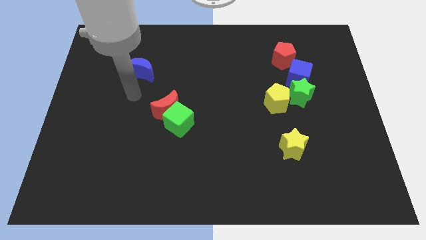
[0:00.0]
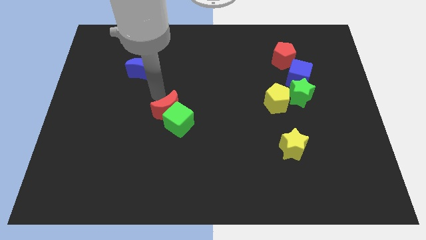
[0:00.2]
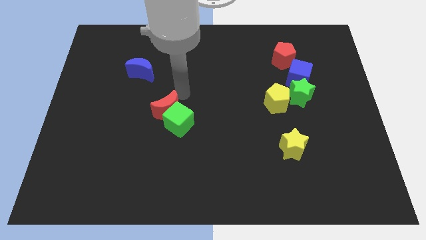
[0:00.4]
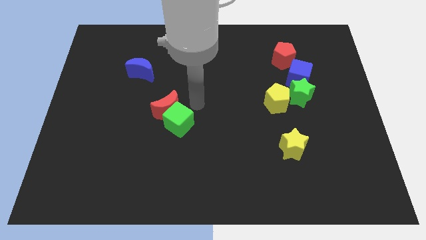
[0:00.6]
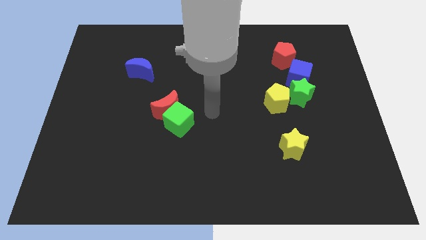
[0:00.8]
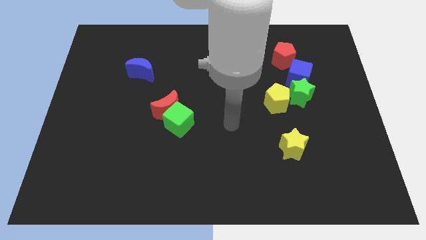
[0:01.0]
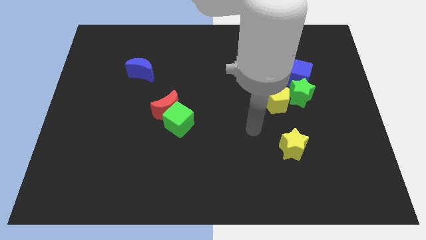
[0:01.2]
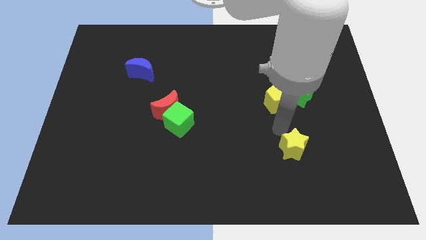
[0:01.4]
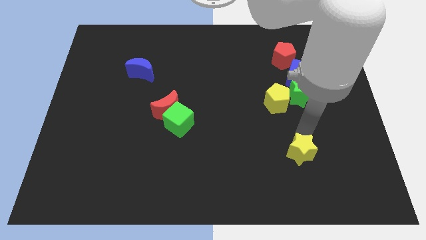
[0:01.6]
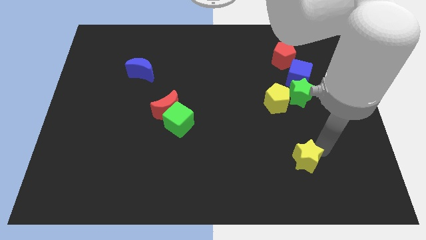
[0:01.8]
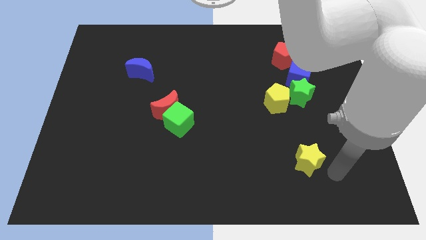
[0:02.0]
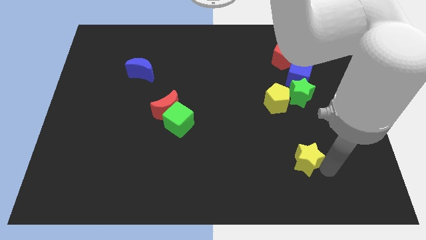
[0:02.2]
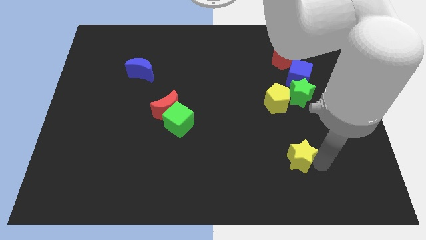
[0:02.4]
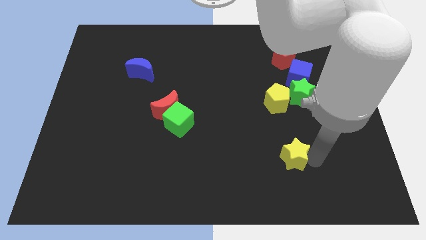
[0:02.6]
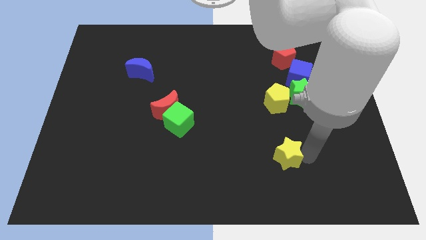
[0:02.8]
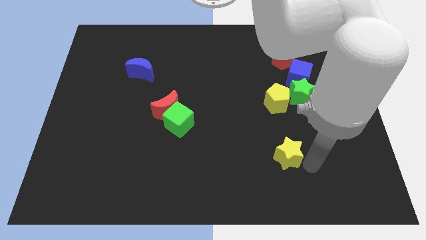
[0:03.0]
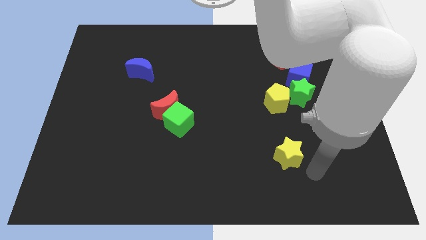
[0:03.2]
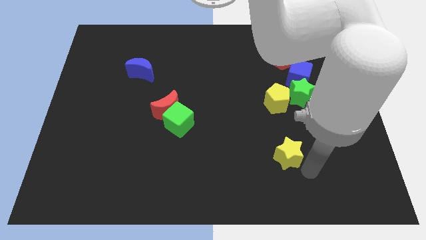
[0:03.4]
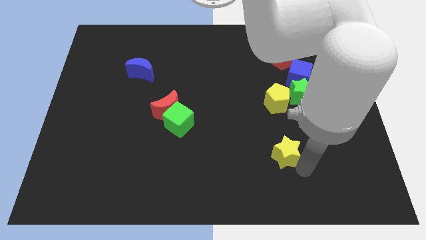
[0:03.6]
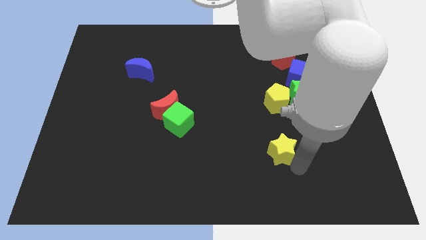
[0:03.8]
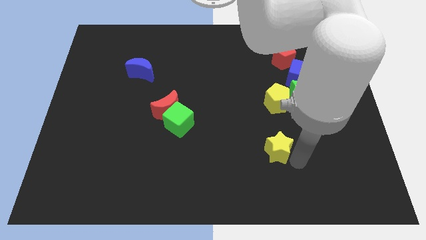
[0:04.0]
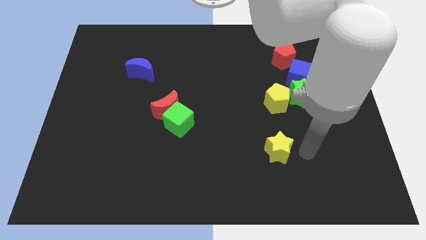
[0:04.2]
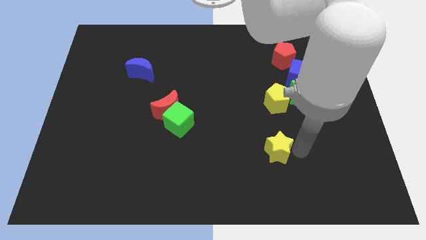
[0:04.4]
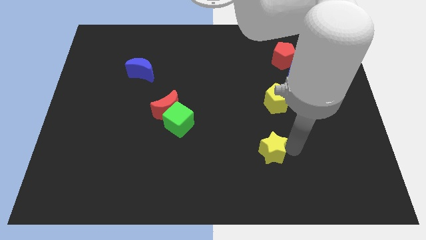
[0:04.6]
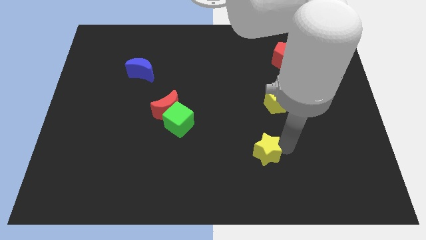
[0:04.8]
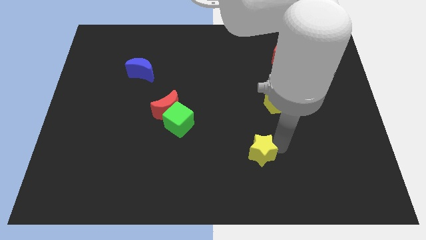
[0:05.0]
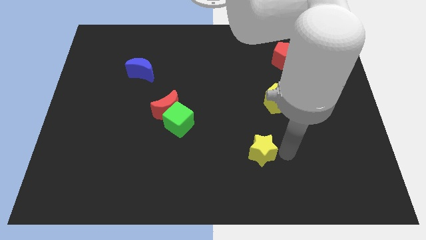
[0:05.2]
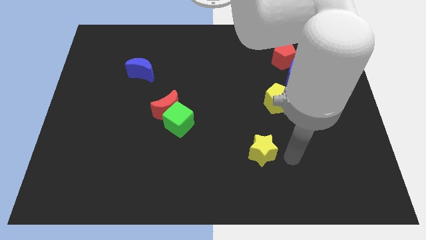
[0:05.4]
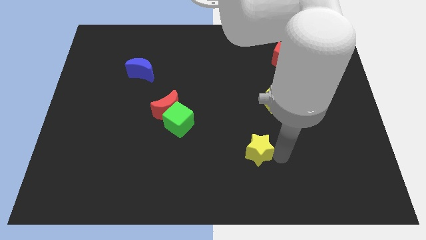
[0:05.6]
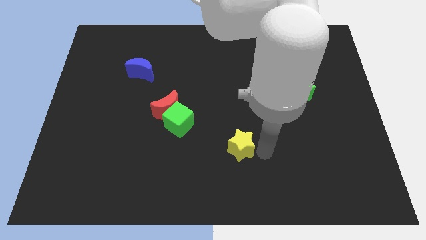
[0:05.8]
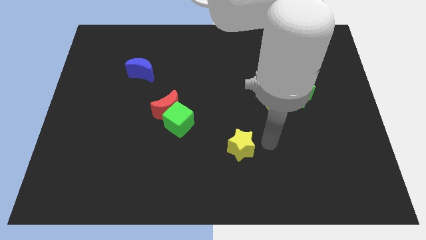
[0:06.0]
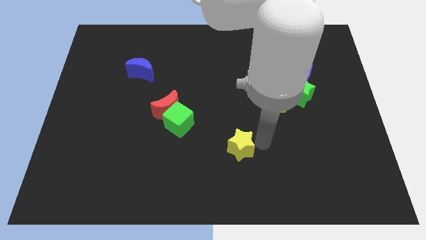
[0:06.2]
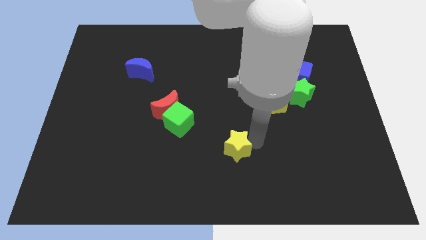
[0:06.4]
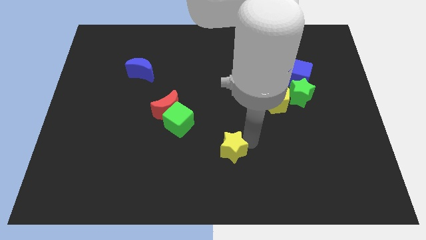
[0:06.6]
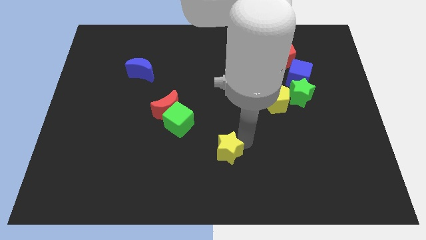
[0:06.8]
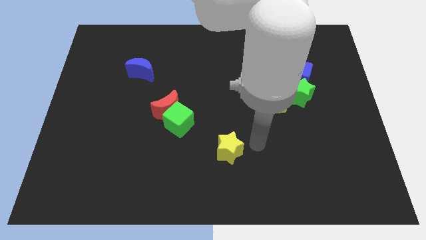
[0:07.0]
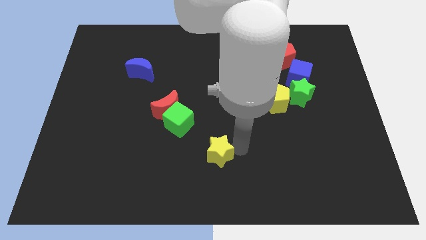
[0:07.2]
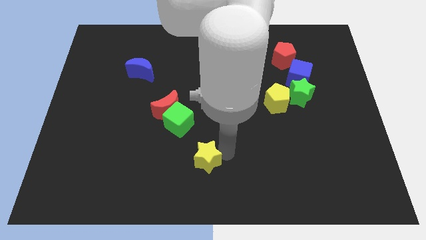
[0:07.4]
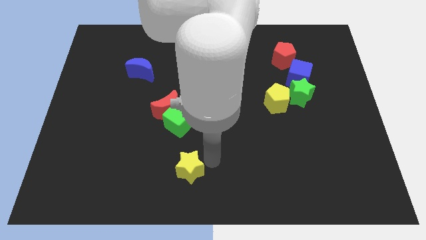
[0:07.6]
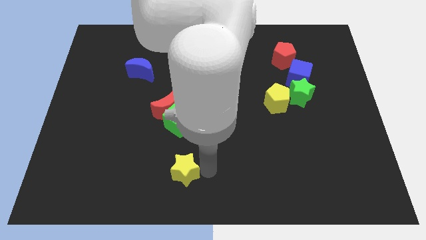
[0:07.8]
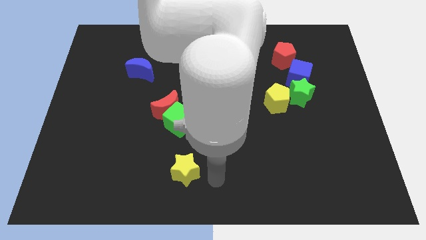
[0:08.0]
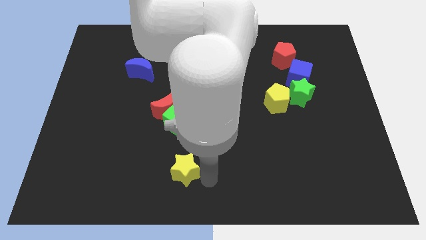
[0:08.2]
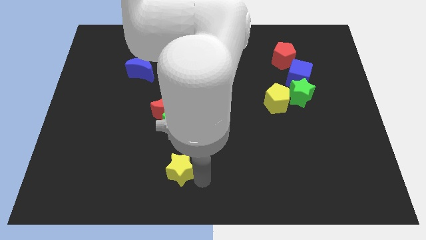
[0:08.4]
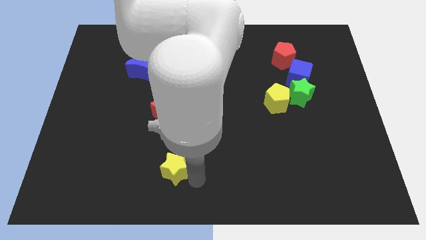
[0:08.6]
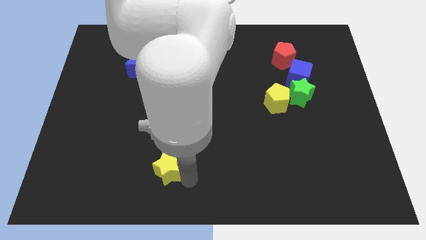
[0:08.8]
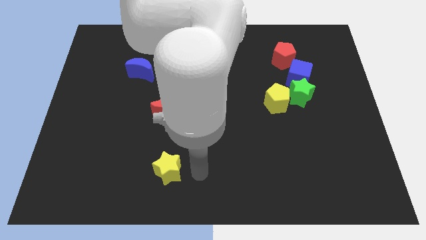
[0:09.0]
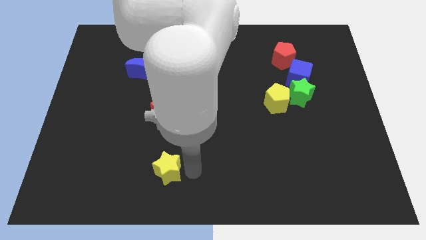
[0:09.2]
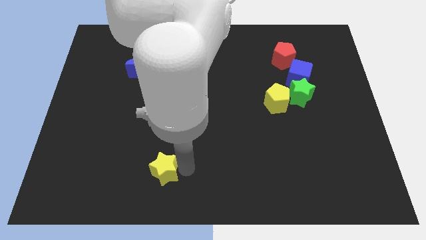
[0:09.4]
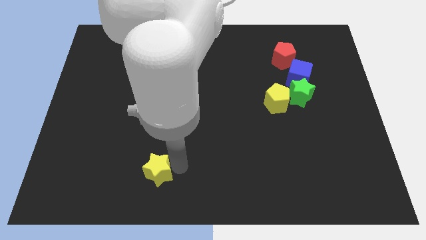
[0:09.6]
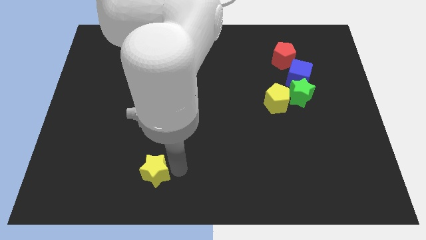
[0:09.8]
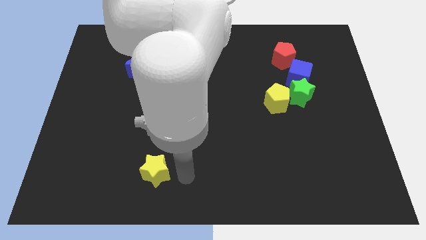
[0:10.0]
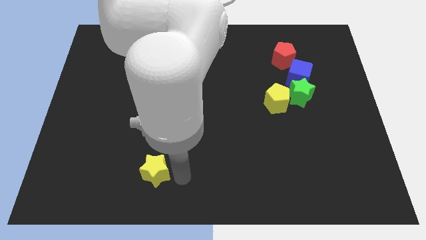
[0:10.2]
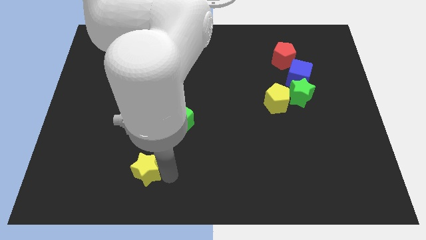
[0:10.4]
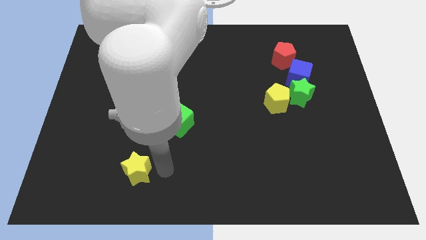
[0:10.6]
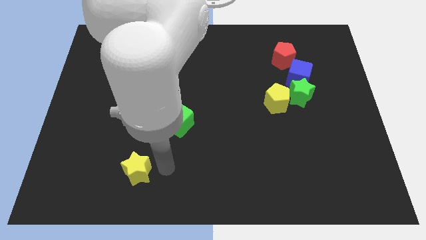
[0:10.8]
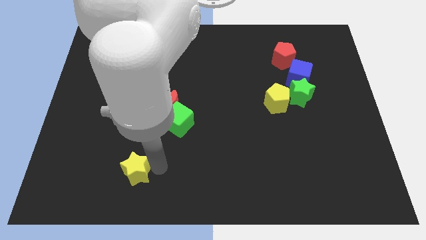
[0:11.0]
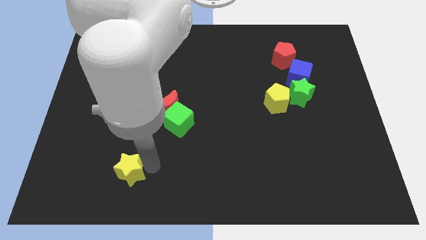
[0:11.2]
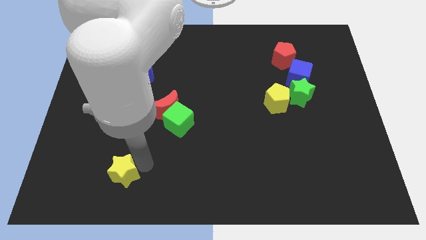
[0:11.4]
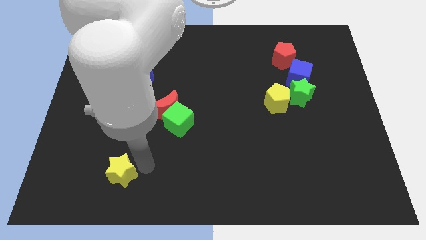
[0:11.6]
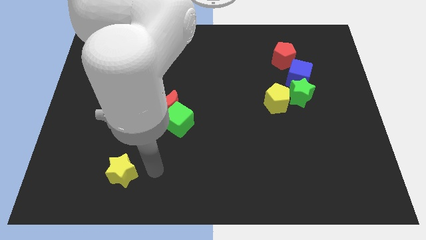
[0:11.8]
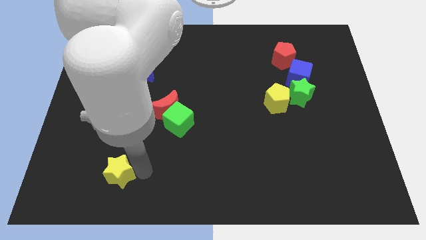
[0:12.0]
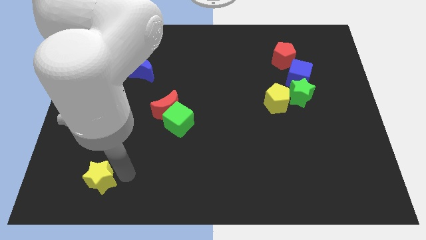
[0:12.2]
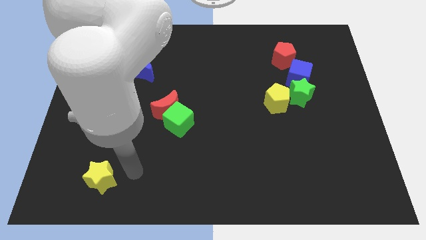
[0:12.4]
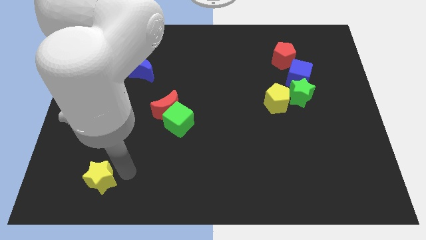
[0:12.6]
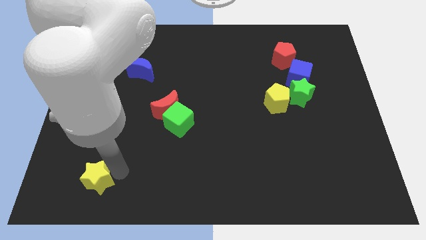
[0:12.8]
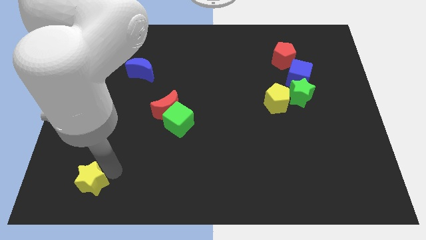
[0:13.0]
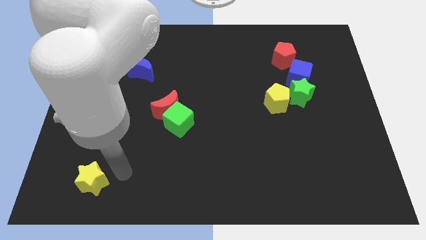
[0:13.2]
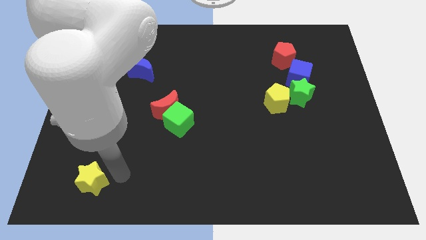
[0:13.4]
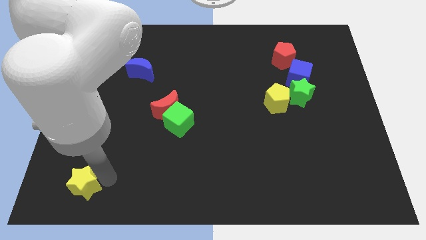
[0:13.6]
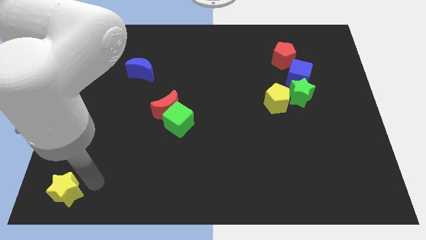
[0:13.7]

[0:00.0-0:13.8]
put the yellow star to the bottom left corner

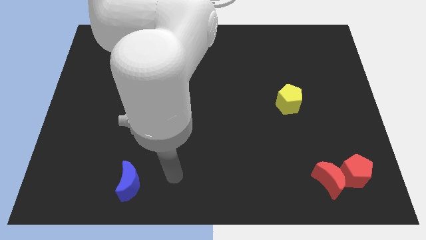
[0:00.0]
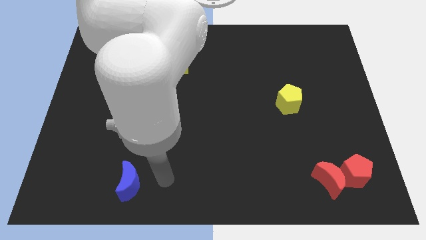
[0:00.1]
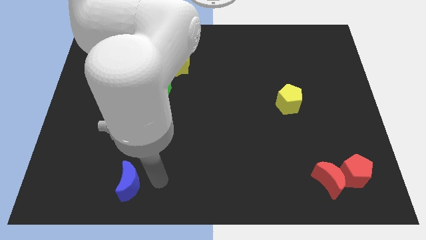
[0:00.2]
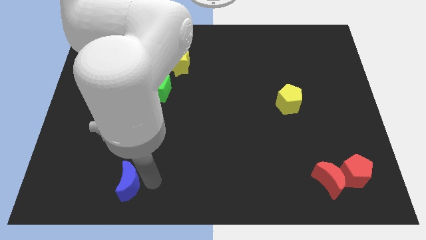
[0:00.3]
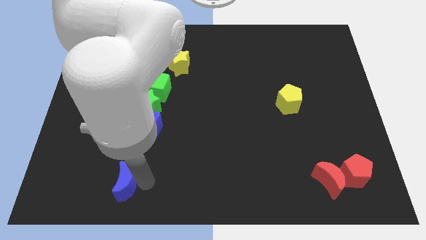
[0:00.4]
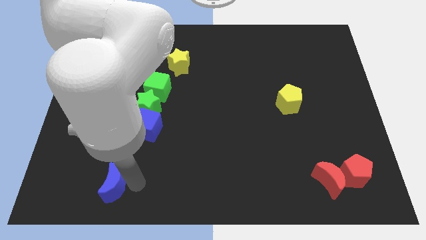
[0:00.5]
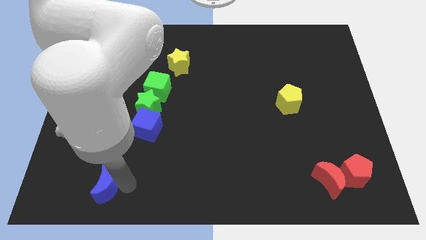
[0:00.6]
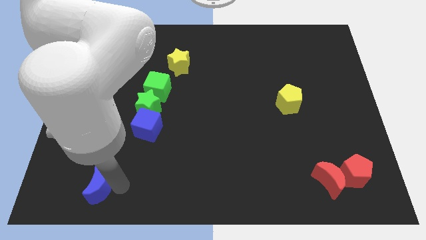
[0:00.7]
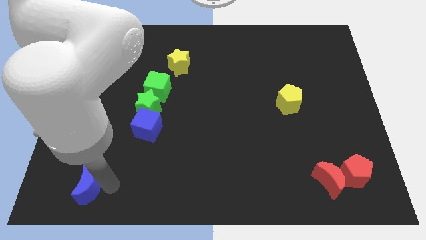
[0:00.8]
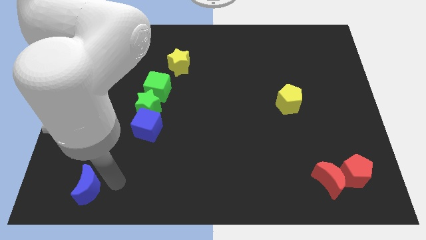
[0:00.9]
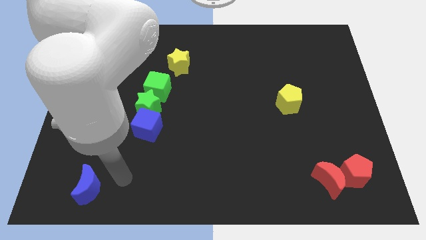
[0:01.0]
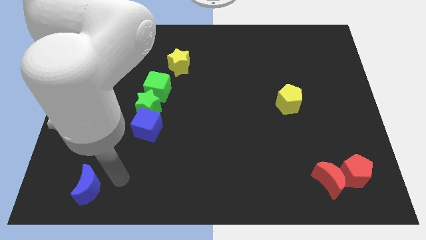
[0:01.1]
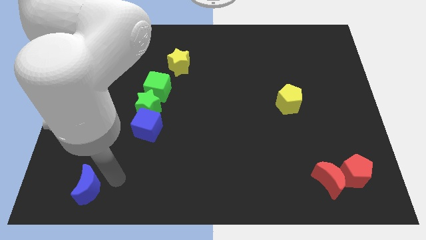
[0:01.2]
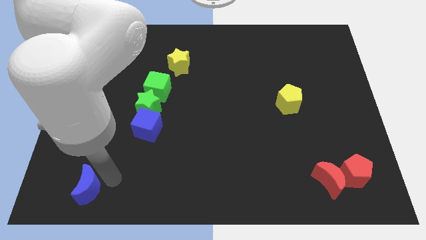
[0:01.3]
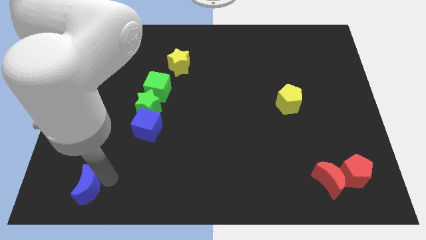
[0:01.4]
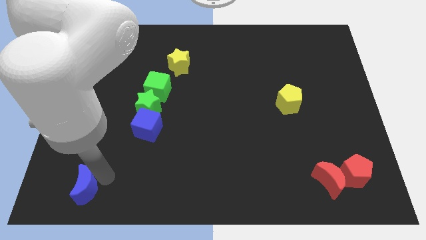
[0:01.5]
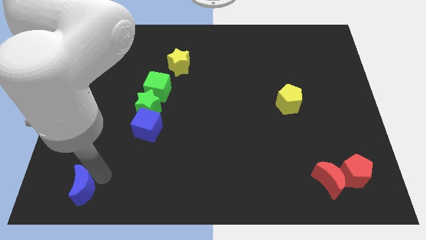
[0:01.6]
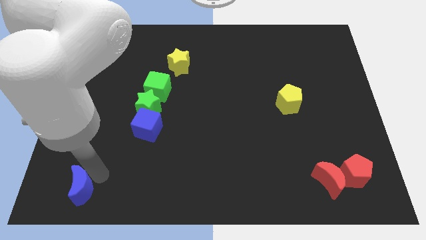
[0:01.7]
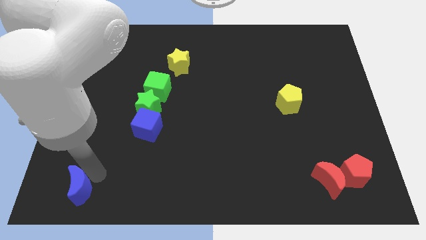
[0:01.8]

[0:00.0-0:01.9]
move the blue moon to the bottom left
